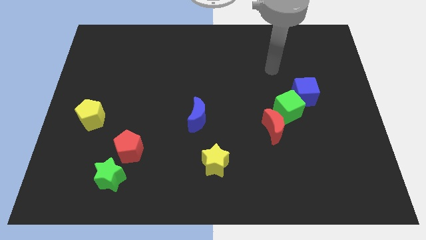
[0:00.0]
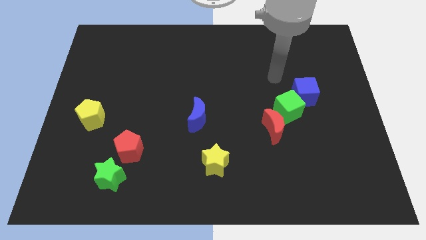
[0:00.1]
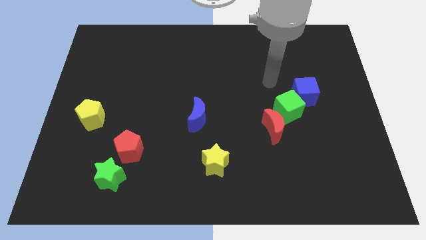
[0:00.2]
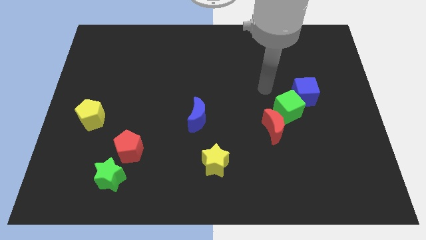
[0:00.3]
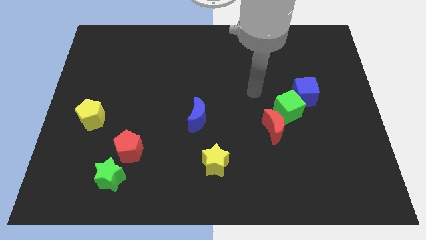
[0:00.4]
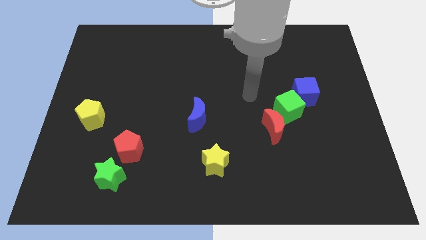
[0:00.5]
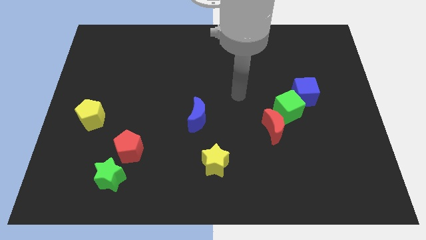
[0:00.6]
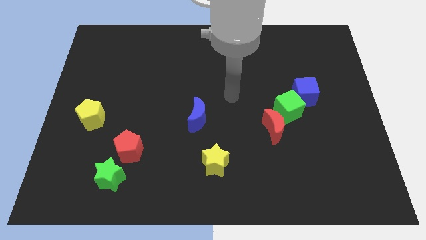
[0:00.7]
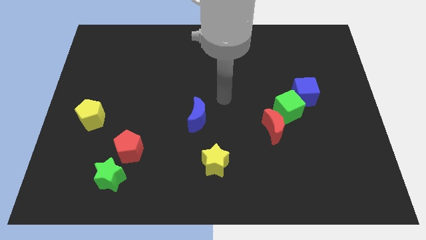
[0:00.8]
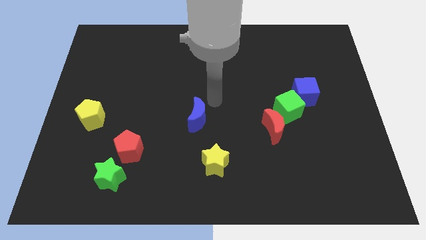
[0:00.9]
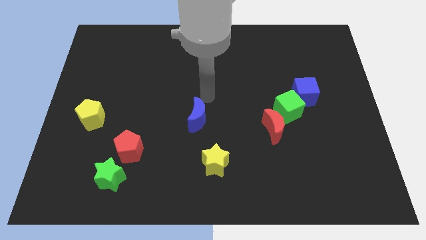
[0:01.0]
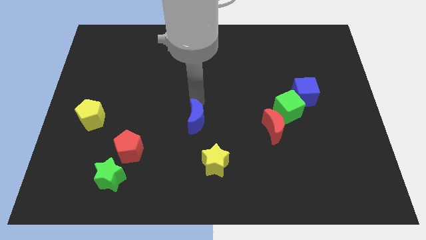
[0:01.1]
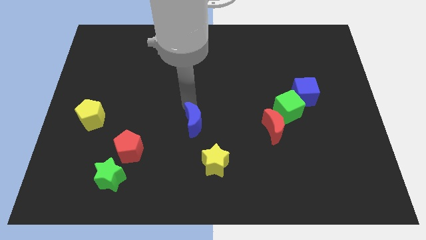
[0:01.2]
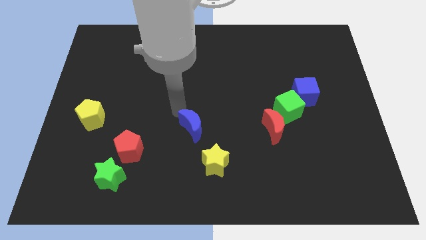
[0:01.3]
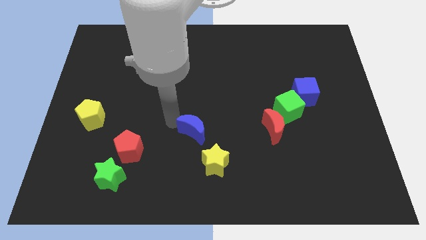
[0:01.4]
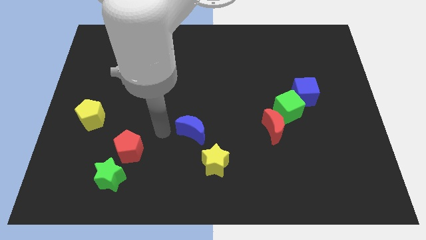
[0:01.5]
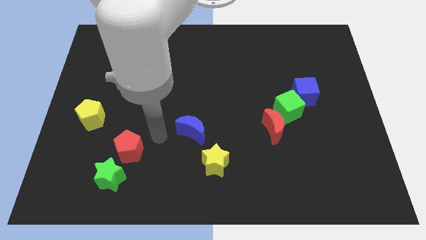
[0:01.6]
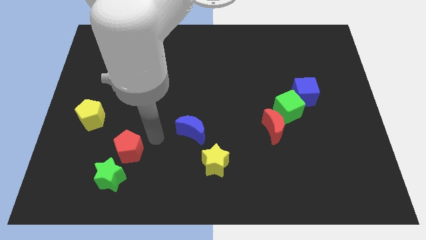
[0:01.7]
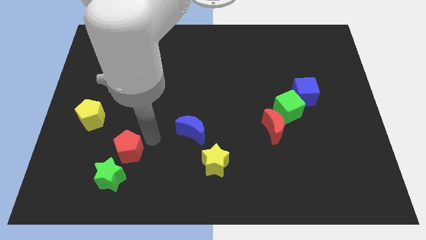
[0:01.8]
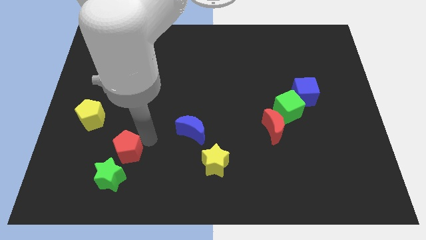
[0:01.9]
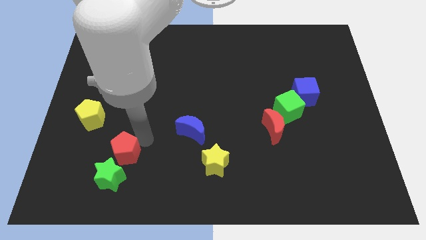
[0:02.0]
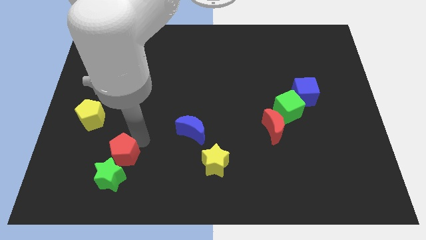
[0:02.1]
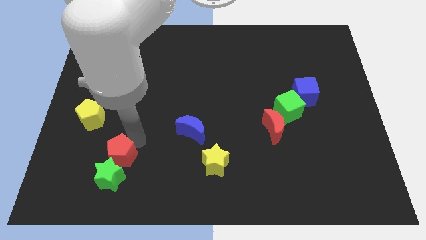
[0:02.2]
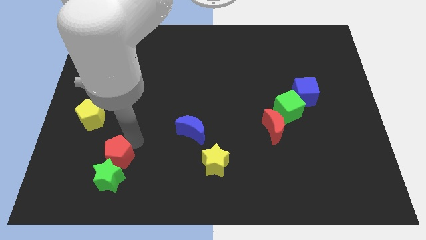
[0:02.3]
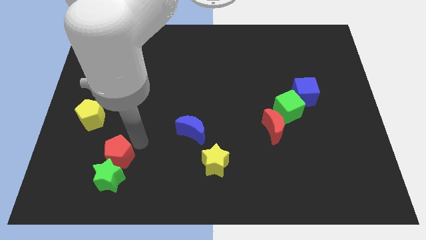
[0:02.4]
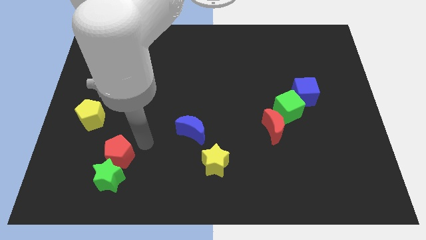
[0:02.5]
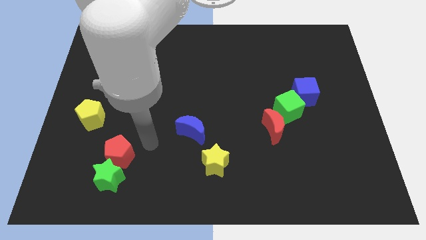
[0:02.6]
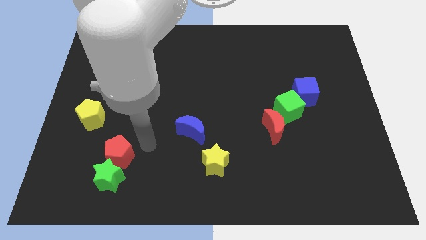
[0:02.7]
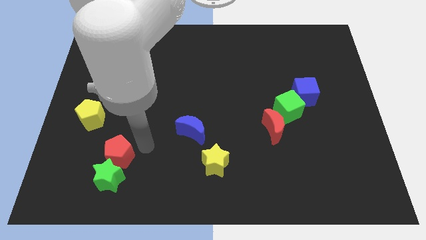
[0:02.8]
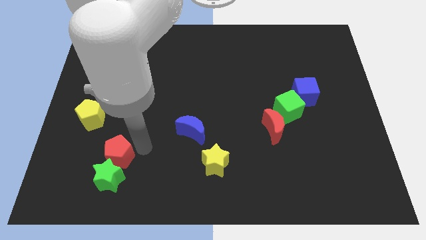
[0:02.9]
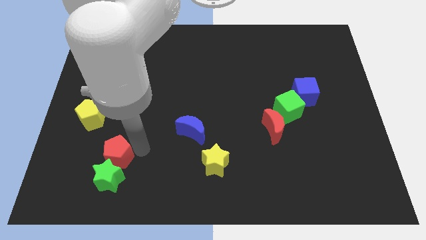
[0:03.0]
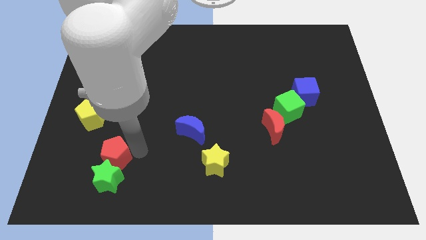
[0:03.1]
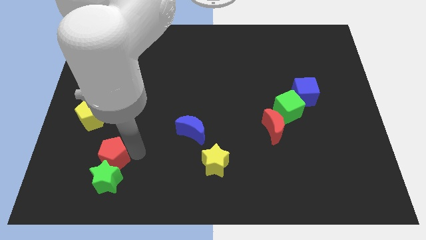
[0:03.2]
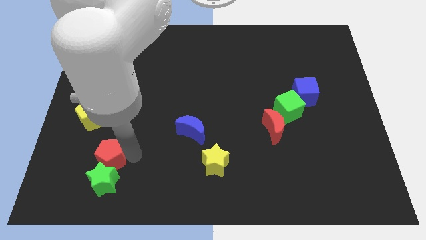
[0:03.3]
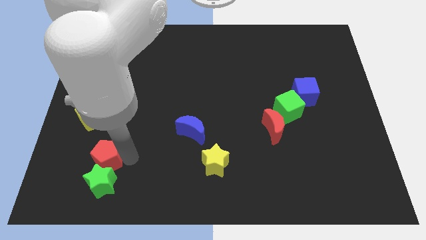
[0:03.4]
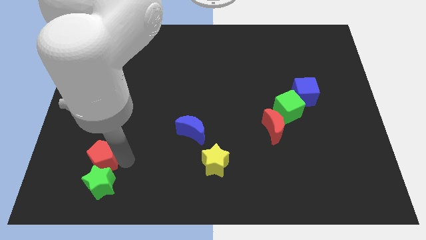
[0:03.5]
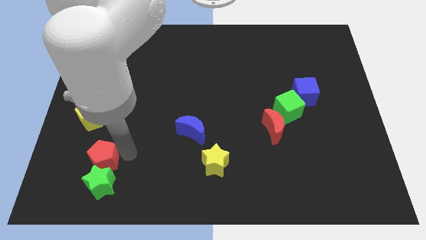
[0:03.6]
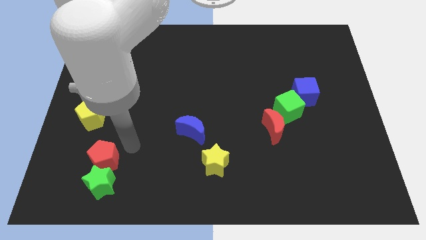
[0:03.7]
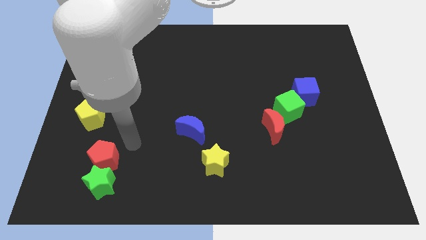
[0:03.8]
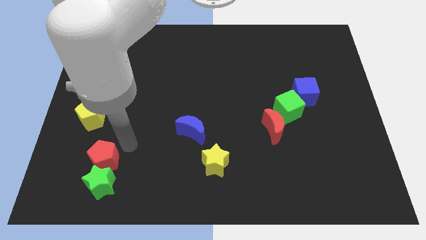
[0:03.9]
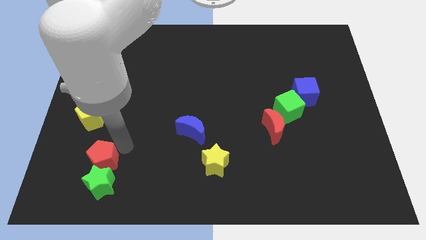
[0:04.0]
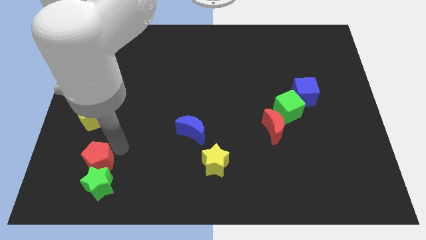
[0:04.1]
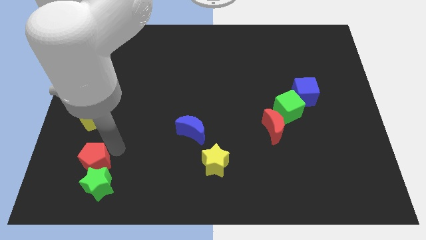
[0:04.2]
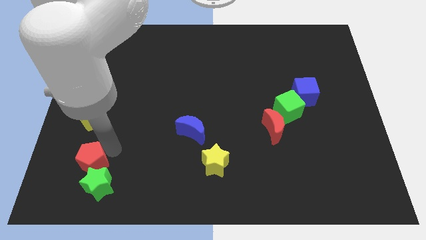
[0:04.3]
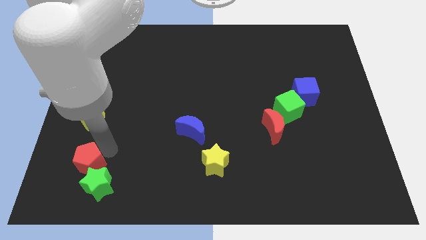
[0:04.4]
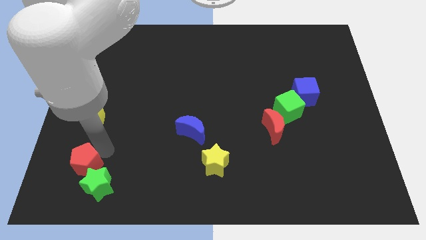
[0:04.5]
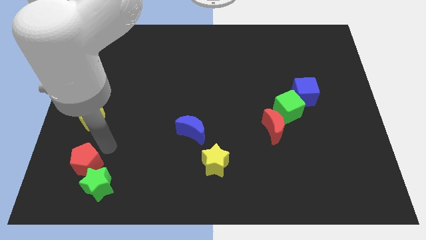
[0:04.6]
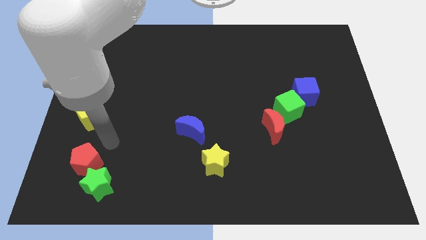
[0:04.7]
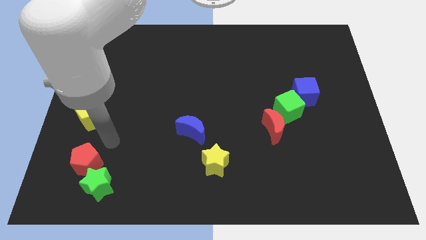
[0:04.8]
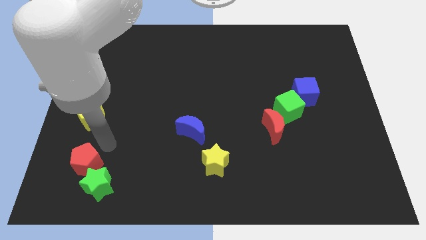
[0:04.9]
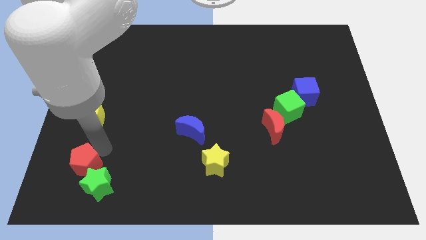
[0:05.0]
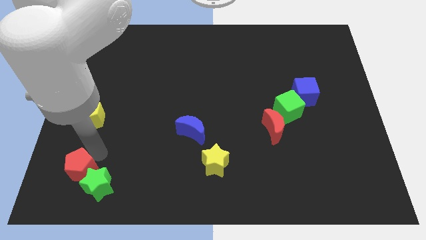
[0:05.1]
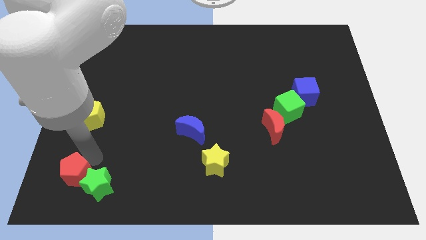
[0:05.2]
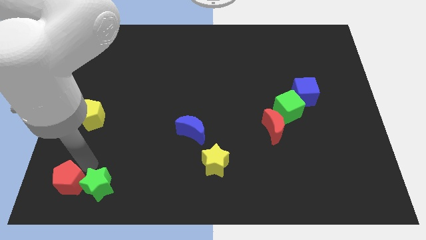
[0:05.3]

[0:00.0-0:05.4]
move the red pentagon to the bottom left corner
